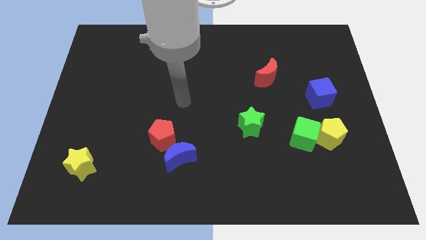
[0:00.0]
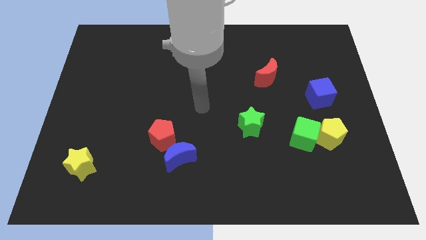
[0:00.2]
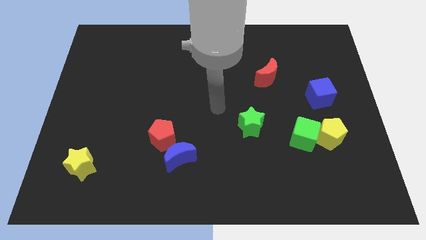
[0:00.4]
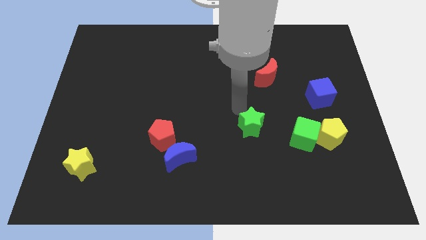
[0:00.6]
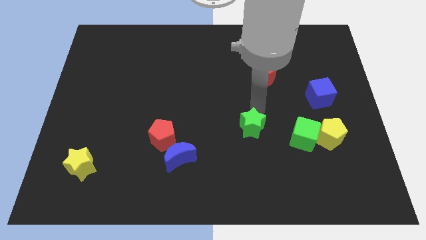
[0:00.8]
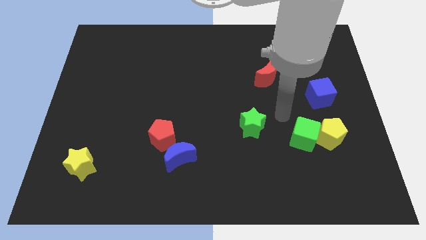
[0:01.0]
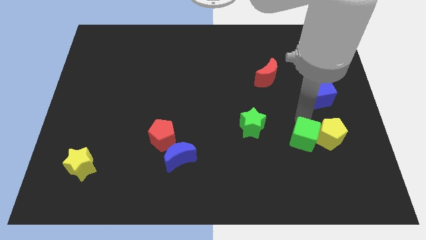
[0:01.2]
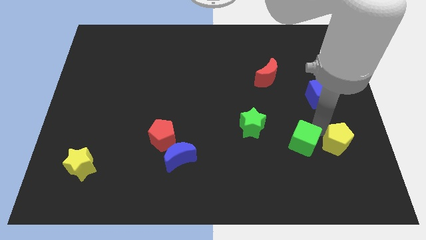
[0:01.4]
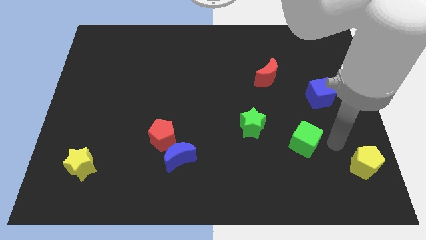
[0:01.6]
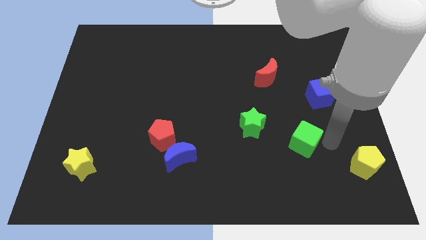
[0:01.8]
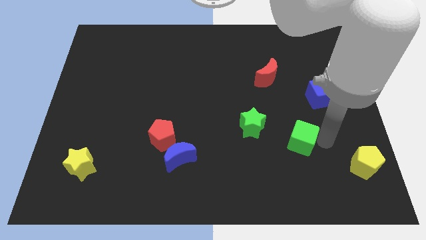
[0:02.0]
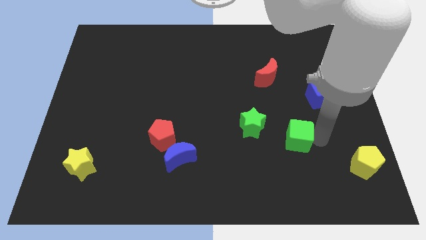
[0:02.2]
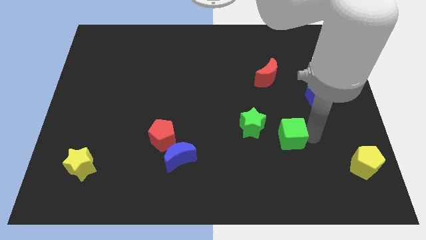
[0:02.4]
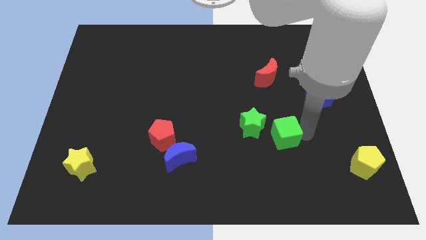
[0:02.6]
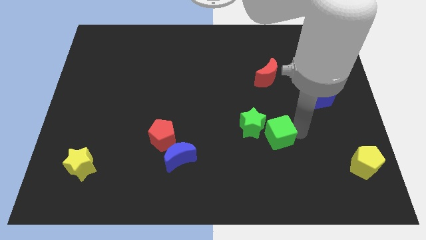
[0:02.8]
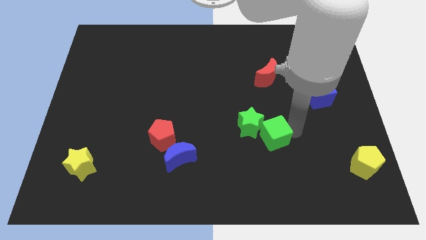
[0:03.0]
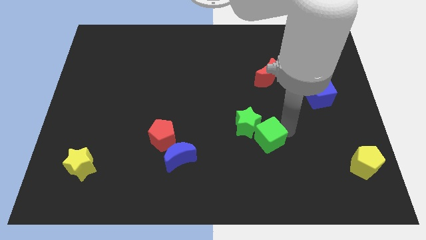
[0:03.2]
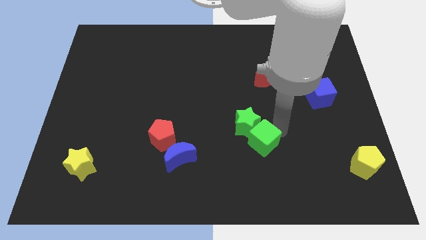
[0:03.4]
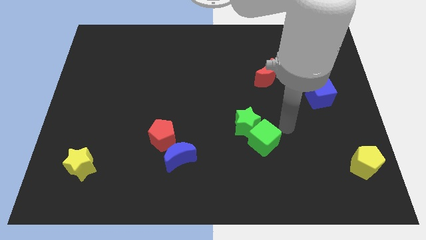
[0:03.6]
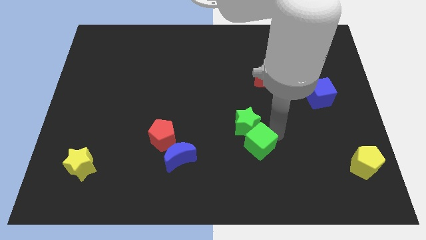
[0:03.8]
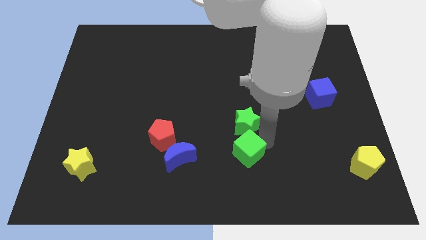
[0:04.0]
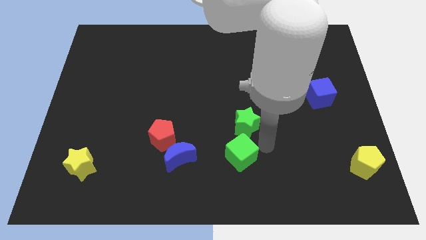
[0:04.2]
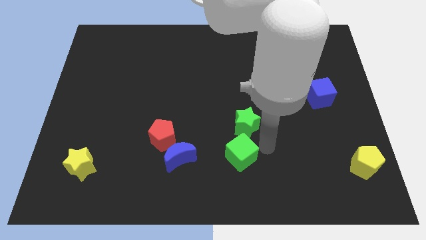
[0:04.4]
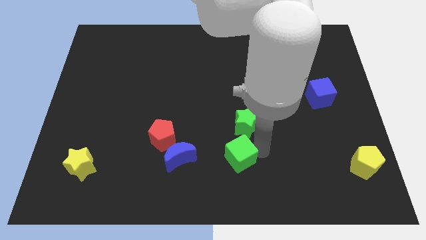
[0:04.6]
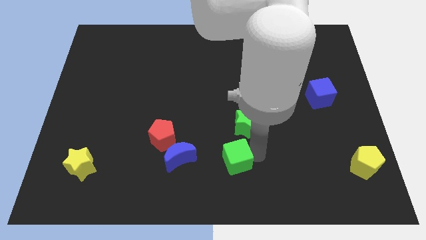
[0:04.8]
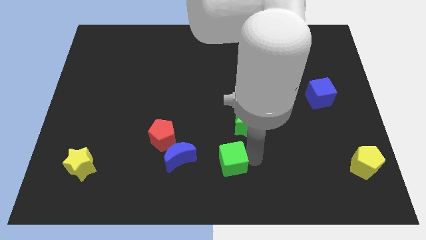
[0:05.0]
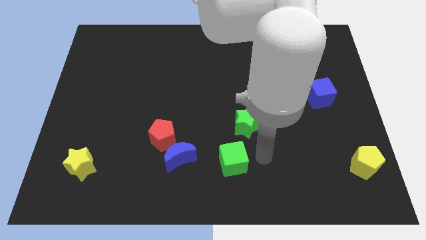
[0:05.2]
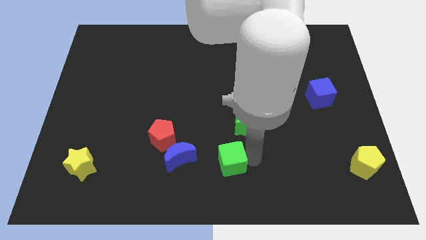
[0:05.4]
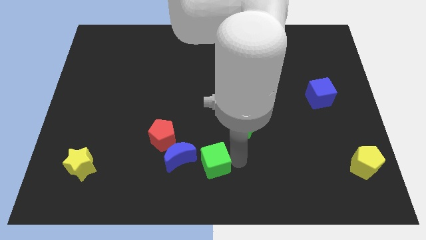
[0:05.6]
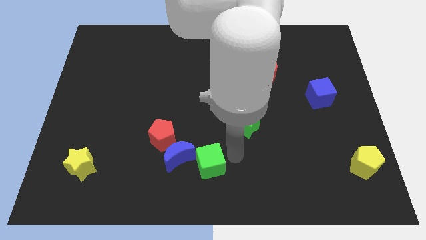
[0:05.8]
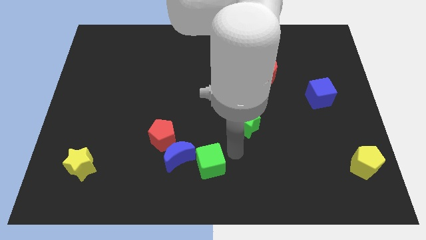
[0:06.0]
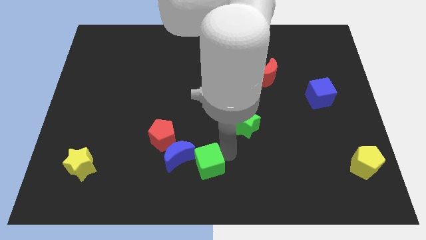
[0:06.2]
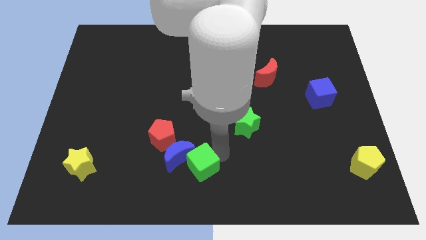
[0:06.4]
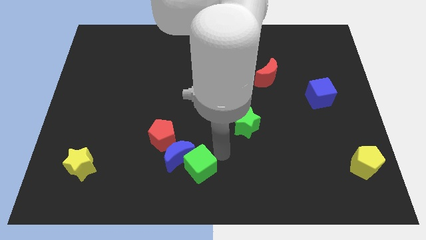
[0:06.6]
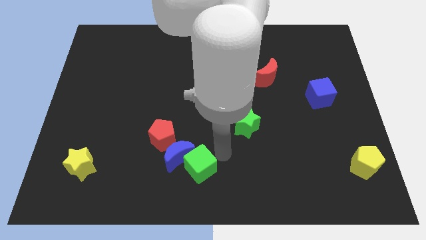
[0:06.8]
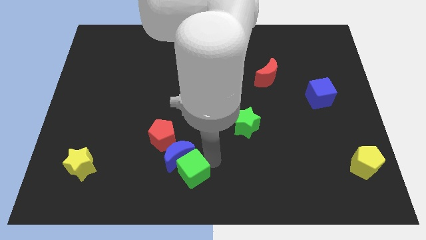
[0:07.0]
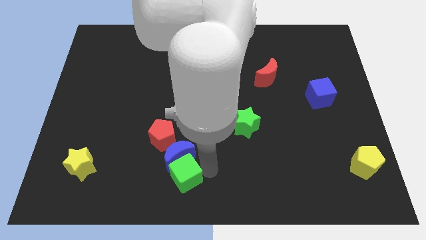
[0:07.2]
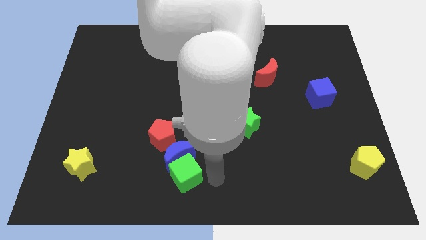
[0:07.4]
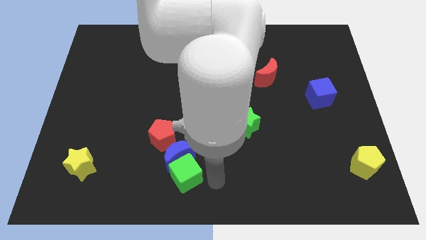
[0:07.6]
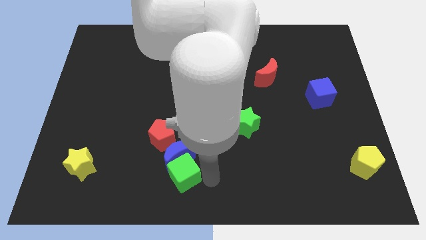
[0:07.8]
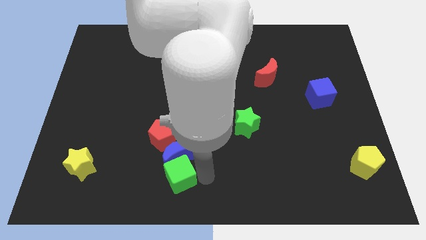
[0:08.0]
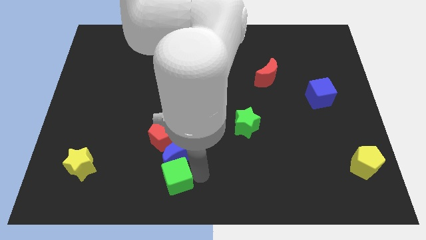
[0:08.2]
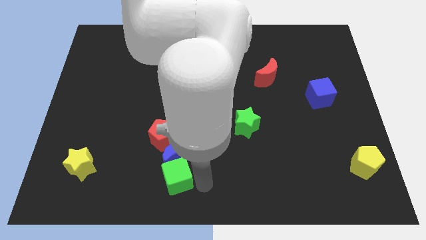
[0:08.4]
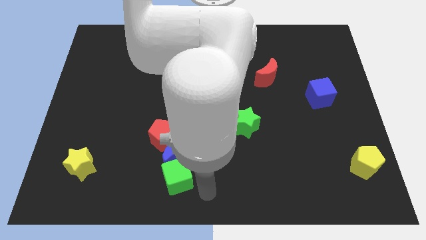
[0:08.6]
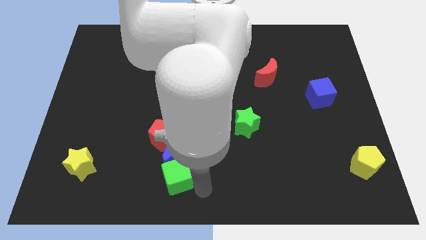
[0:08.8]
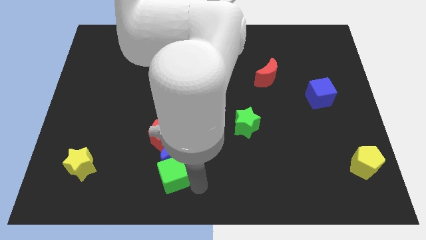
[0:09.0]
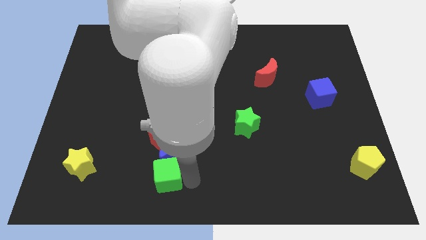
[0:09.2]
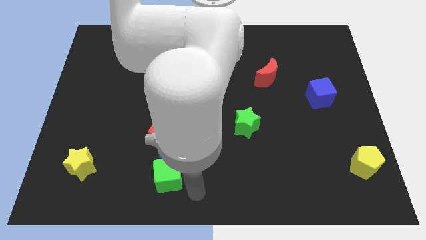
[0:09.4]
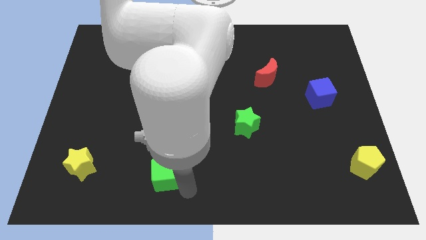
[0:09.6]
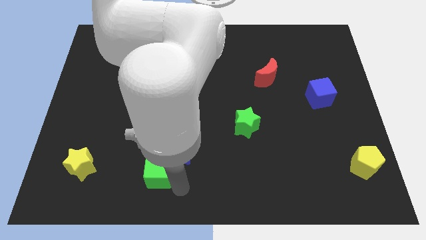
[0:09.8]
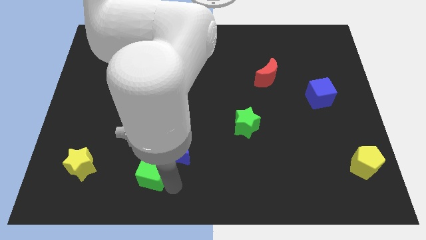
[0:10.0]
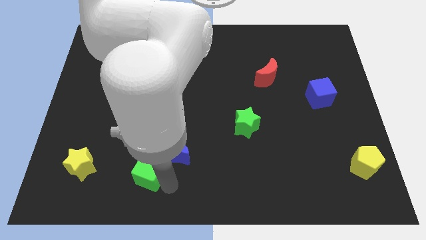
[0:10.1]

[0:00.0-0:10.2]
slide the green cube to the bottom left side of the red pentagon

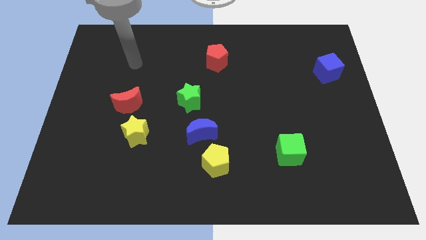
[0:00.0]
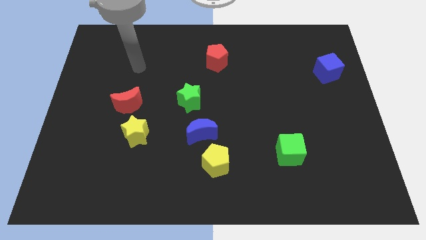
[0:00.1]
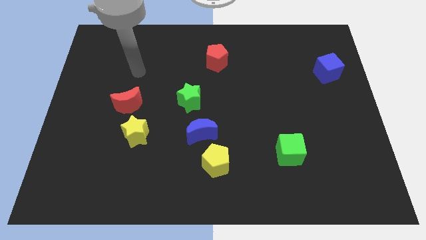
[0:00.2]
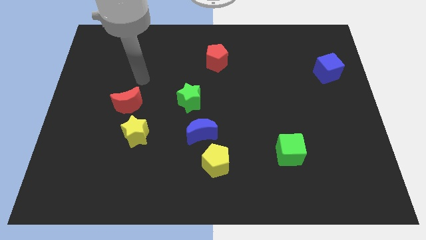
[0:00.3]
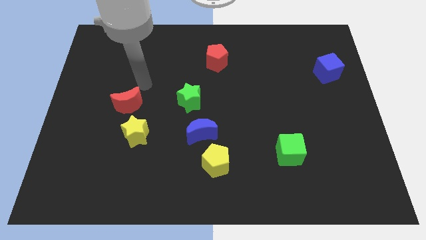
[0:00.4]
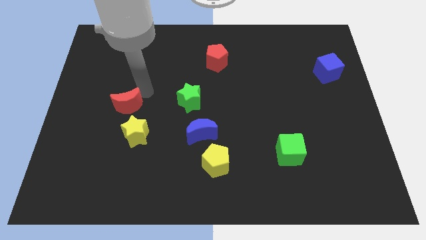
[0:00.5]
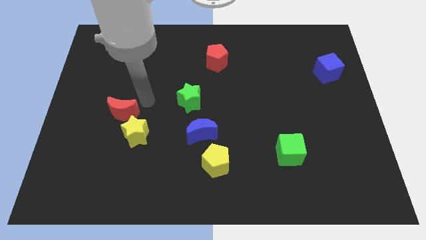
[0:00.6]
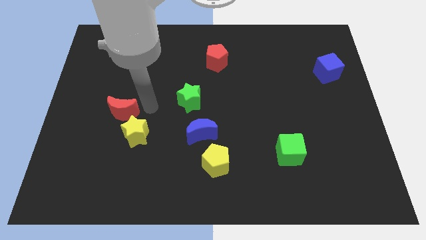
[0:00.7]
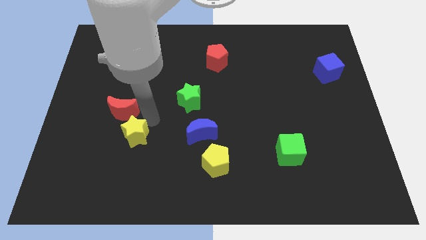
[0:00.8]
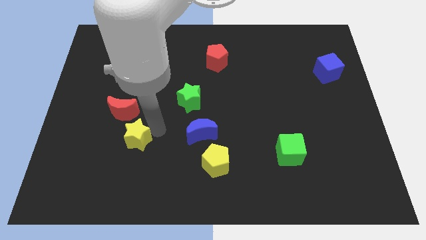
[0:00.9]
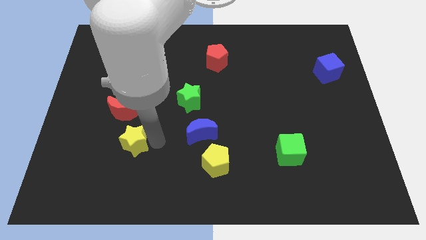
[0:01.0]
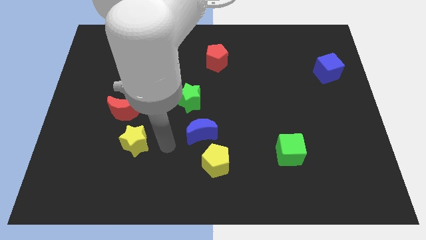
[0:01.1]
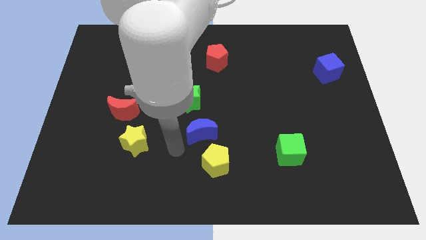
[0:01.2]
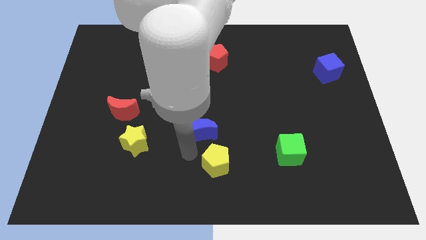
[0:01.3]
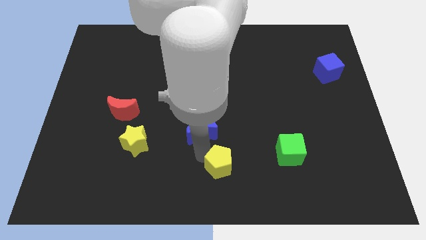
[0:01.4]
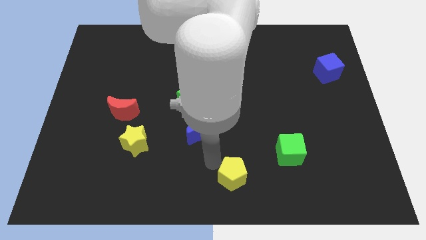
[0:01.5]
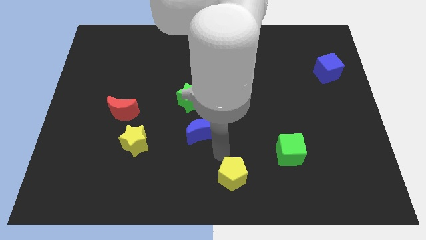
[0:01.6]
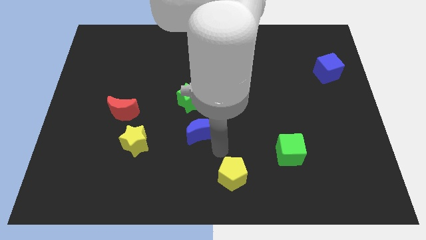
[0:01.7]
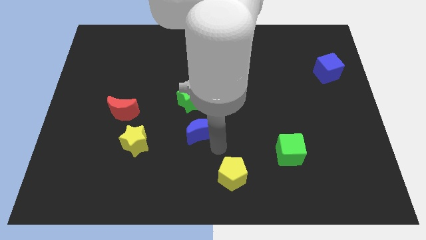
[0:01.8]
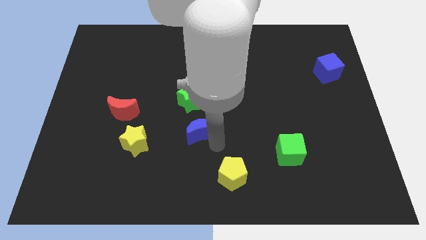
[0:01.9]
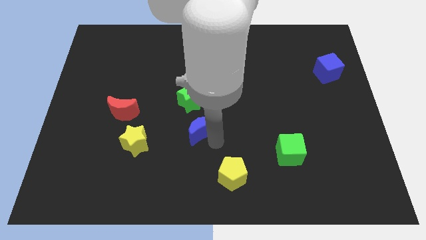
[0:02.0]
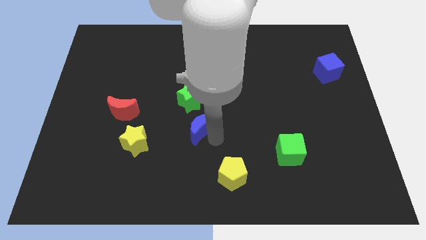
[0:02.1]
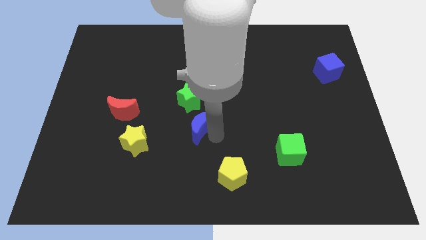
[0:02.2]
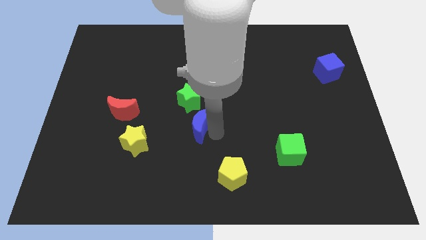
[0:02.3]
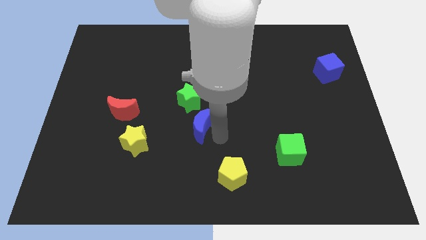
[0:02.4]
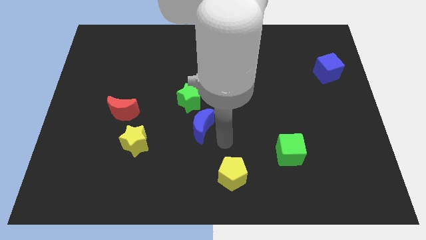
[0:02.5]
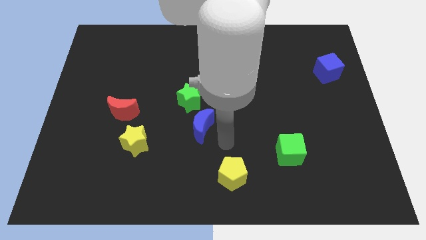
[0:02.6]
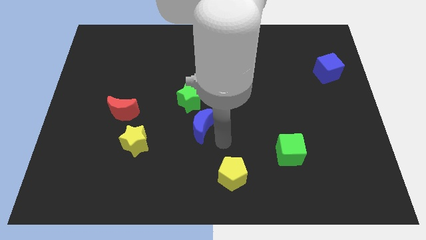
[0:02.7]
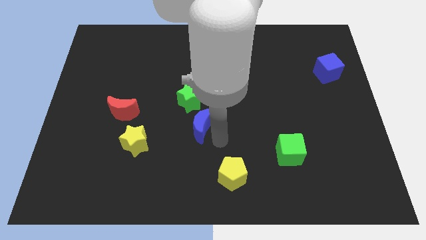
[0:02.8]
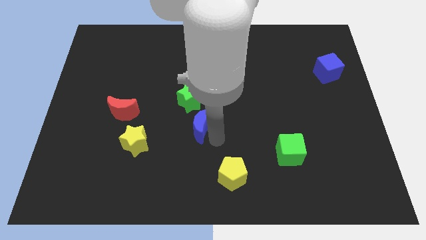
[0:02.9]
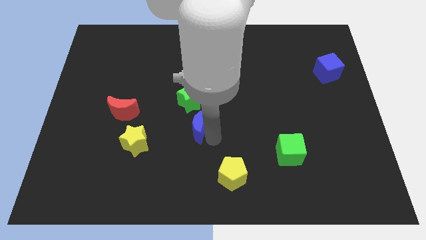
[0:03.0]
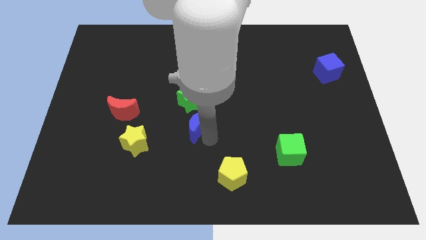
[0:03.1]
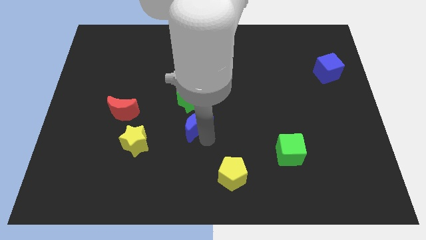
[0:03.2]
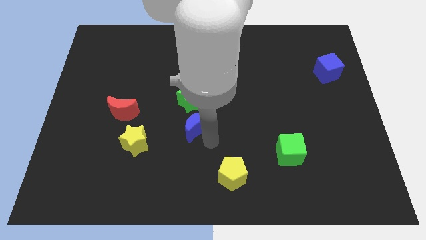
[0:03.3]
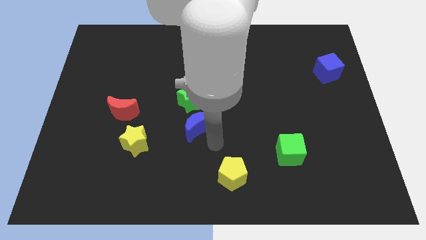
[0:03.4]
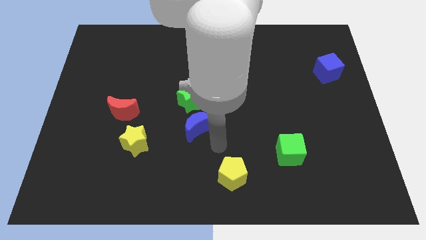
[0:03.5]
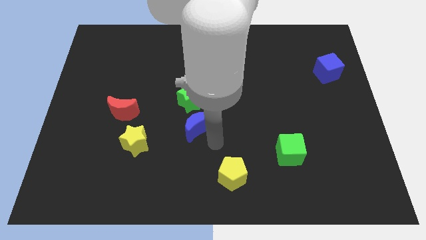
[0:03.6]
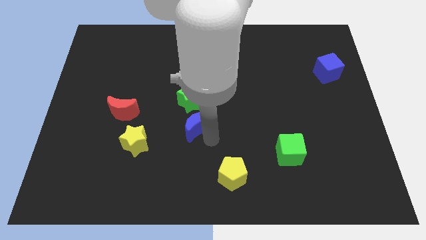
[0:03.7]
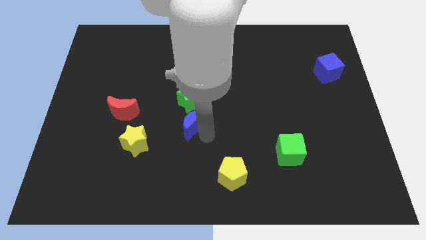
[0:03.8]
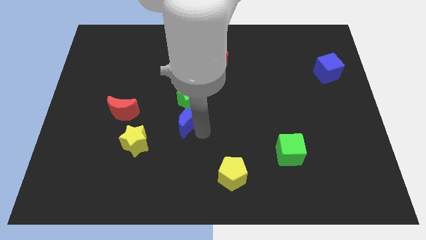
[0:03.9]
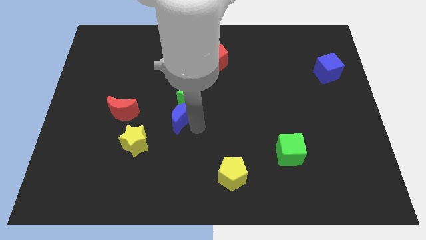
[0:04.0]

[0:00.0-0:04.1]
push the blue moon right of the red moon
